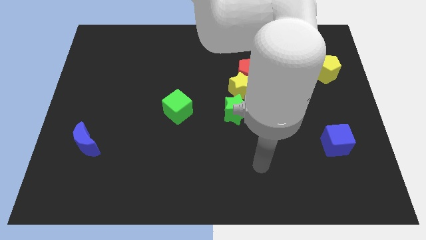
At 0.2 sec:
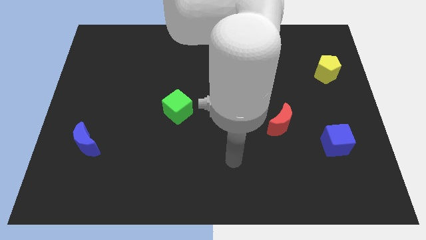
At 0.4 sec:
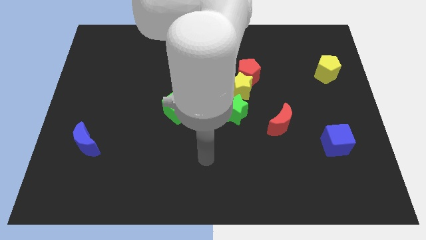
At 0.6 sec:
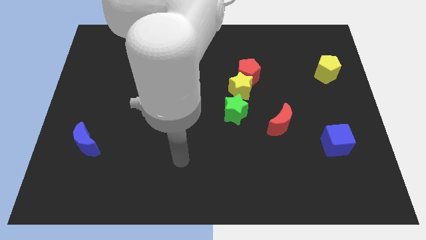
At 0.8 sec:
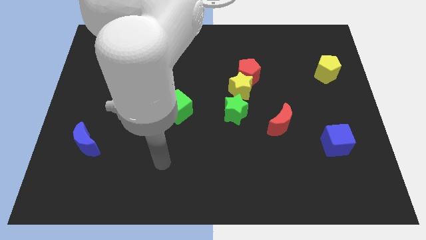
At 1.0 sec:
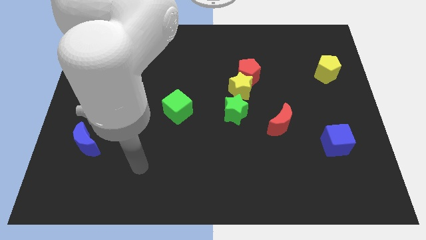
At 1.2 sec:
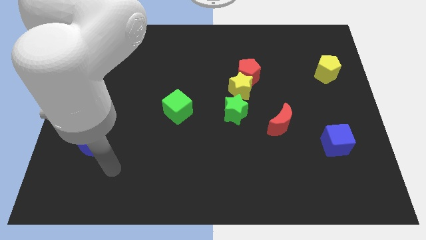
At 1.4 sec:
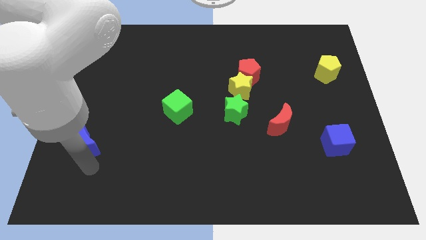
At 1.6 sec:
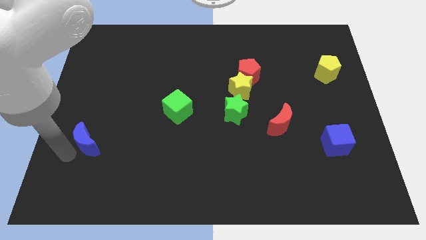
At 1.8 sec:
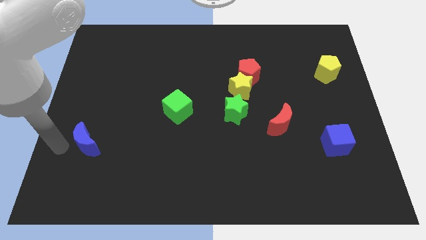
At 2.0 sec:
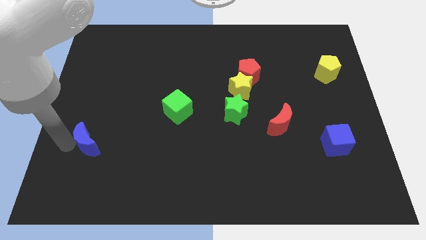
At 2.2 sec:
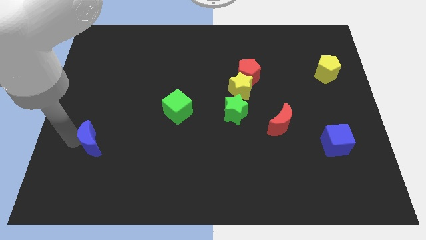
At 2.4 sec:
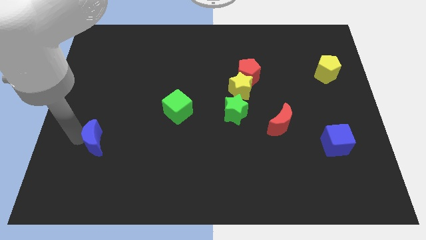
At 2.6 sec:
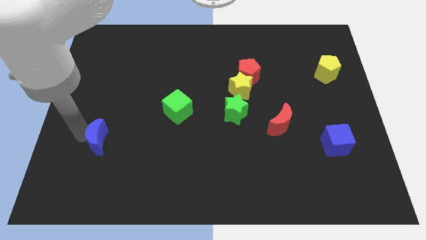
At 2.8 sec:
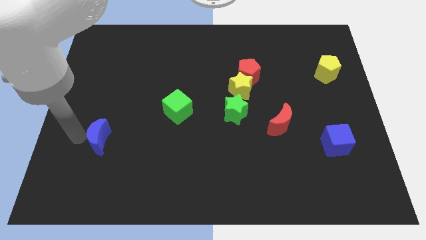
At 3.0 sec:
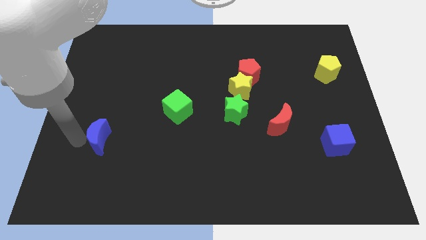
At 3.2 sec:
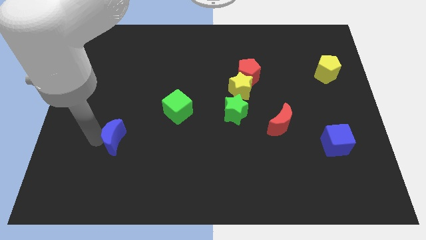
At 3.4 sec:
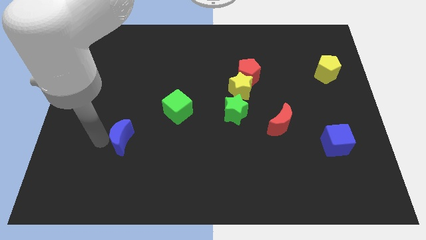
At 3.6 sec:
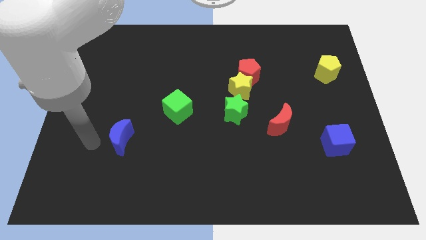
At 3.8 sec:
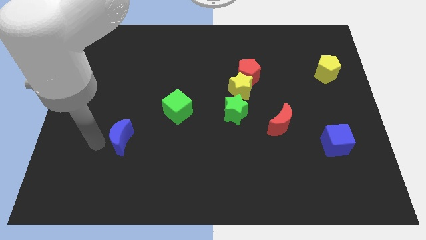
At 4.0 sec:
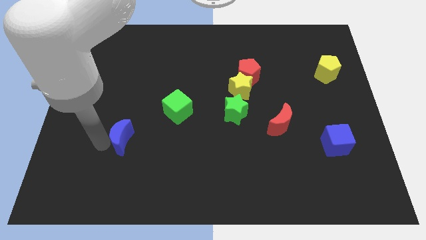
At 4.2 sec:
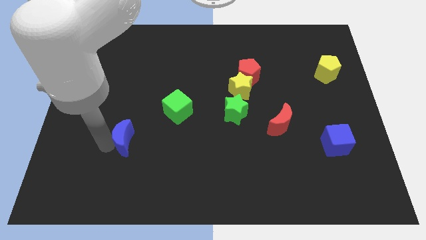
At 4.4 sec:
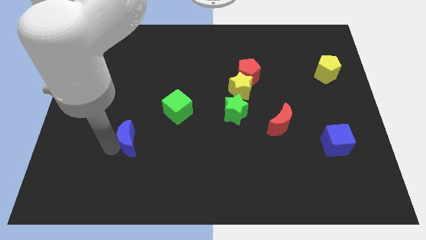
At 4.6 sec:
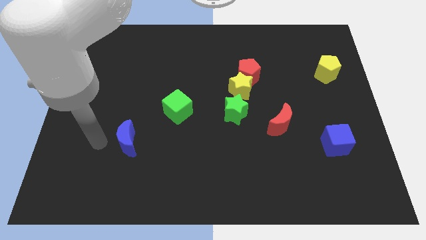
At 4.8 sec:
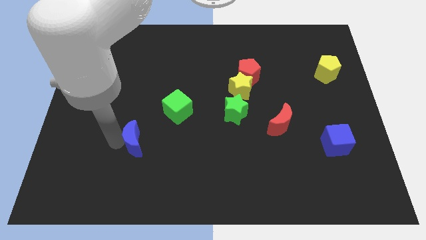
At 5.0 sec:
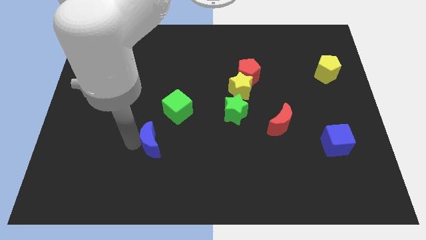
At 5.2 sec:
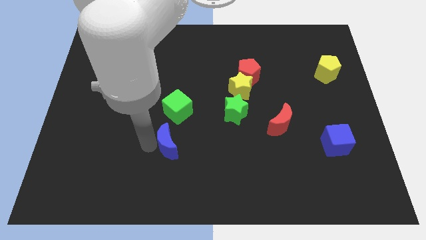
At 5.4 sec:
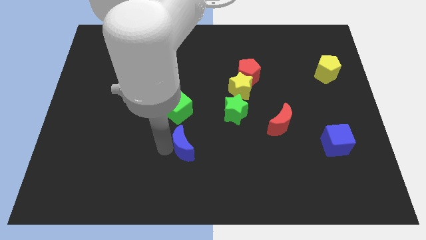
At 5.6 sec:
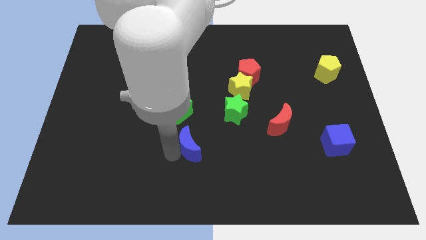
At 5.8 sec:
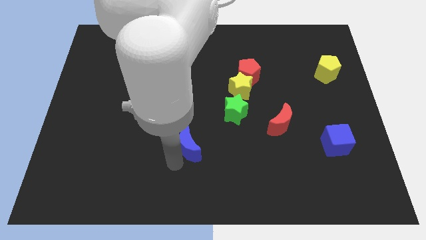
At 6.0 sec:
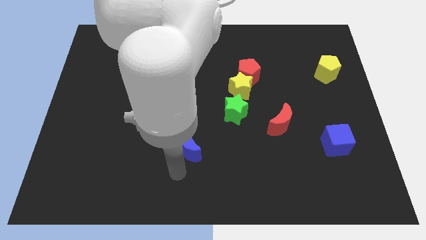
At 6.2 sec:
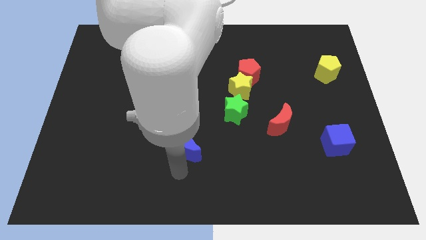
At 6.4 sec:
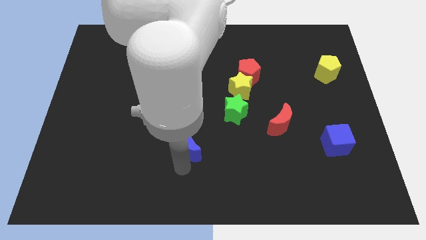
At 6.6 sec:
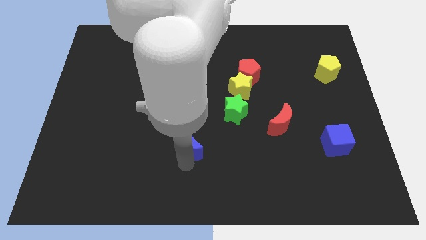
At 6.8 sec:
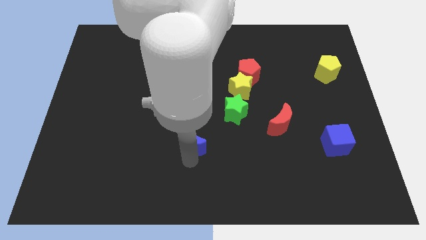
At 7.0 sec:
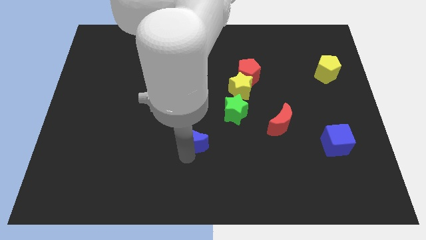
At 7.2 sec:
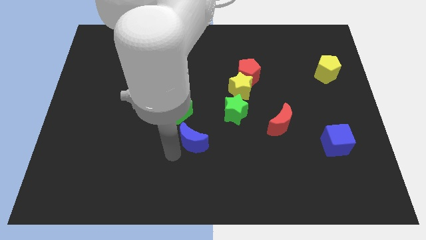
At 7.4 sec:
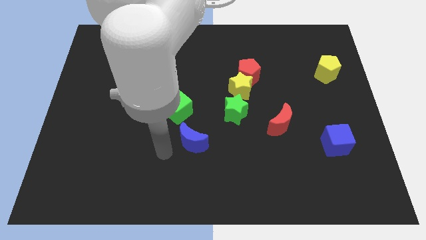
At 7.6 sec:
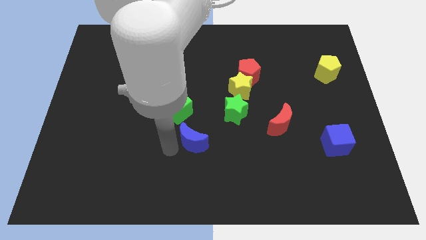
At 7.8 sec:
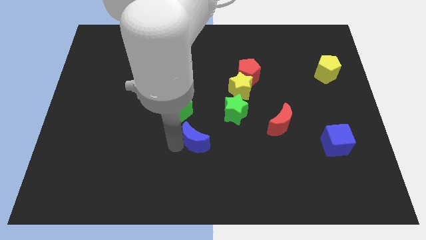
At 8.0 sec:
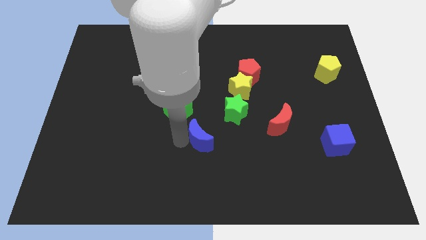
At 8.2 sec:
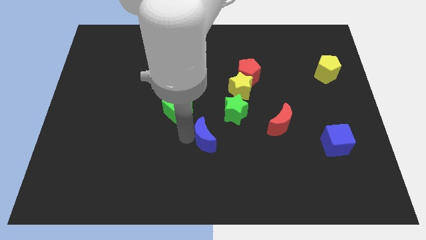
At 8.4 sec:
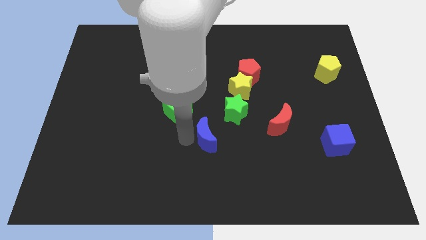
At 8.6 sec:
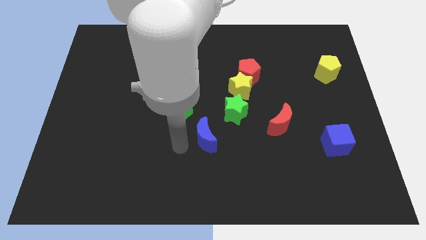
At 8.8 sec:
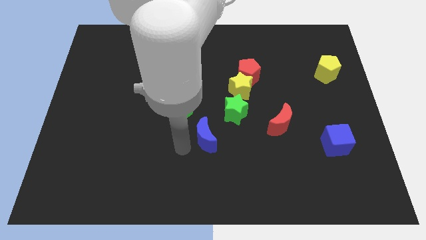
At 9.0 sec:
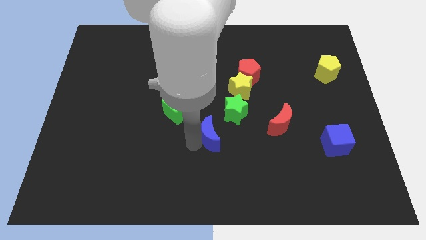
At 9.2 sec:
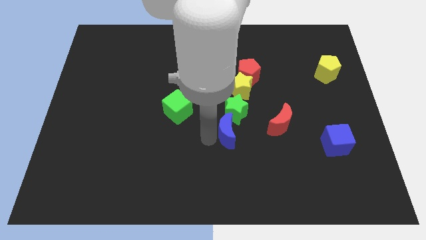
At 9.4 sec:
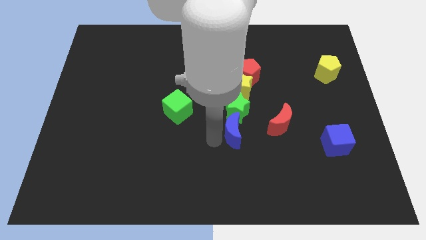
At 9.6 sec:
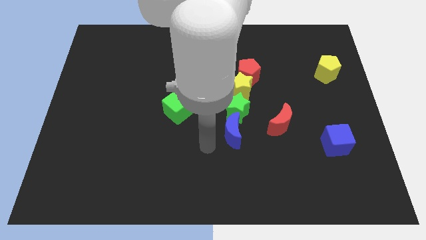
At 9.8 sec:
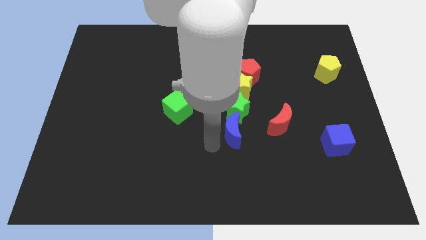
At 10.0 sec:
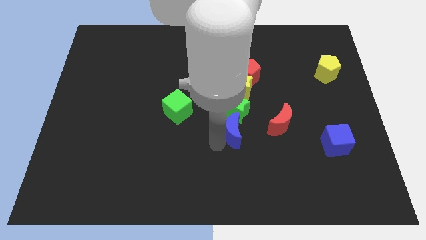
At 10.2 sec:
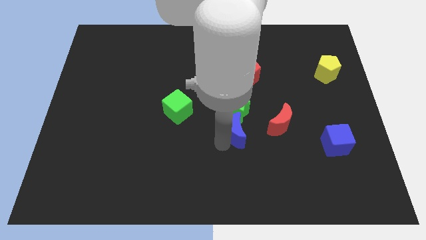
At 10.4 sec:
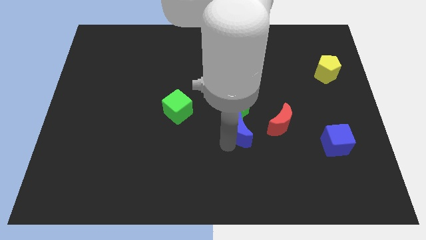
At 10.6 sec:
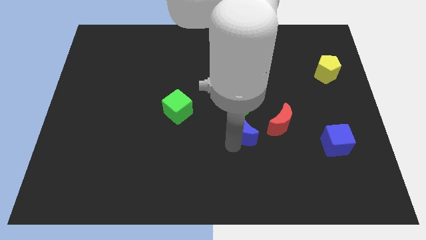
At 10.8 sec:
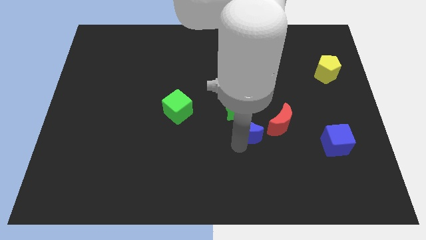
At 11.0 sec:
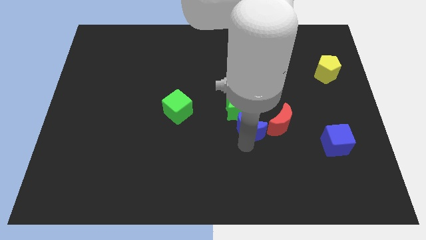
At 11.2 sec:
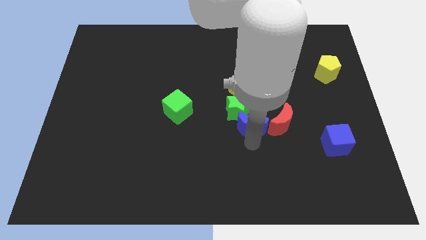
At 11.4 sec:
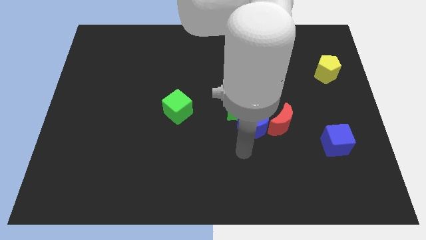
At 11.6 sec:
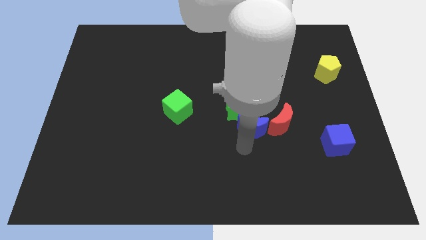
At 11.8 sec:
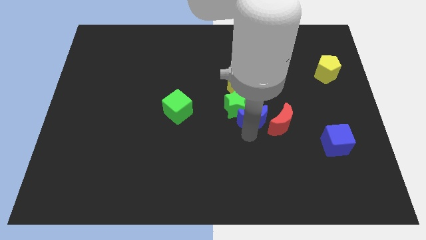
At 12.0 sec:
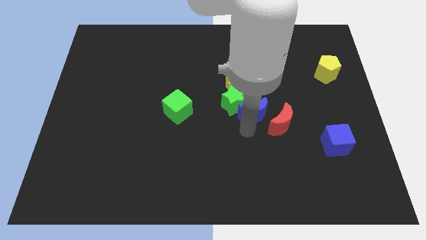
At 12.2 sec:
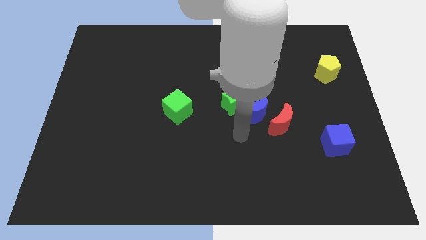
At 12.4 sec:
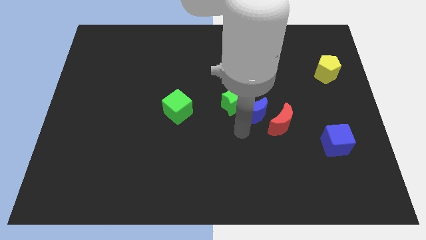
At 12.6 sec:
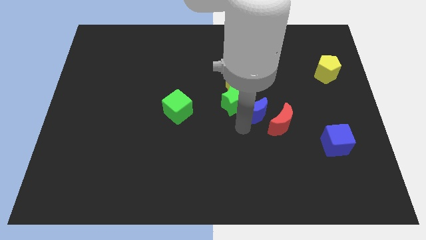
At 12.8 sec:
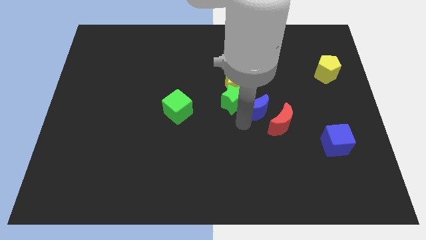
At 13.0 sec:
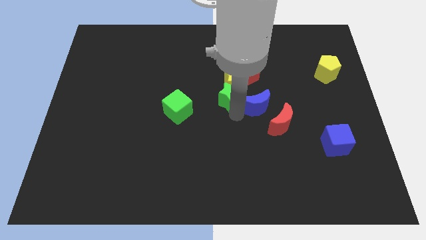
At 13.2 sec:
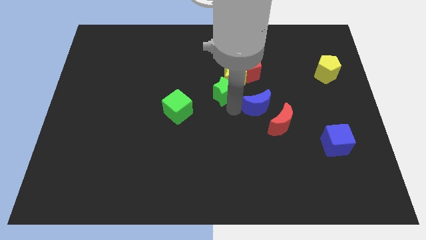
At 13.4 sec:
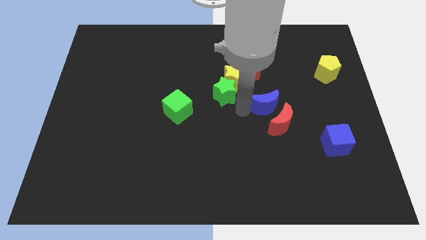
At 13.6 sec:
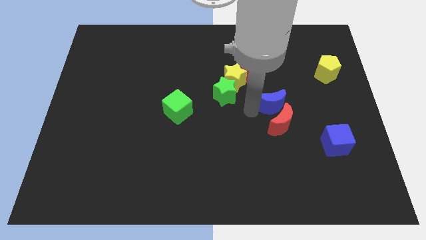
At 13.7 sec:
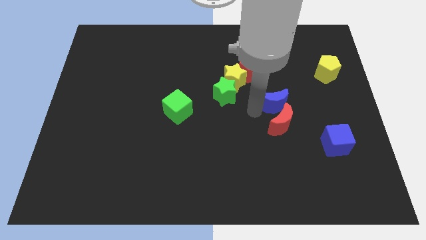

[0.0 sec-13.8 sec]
put the blue moon diagonally up and to the right of the red moon
